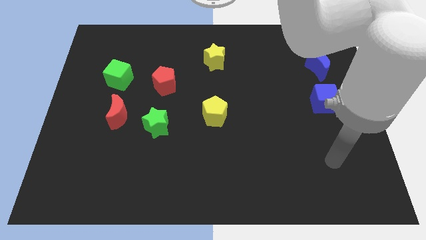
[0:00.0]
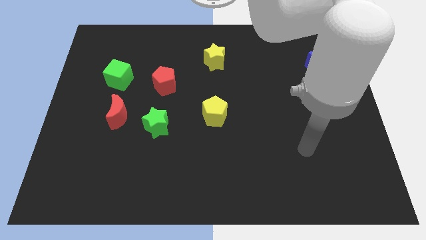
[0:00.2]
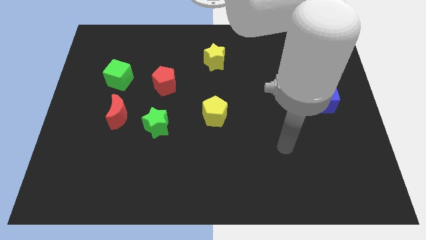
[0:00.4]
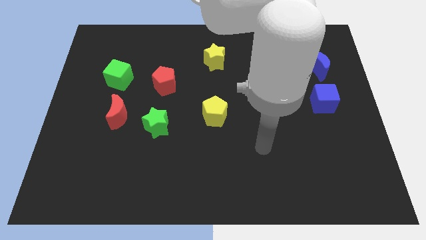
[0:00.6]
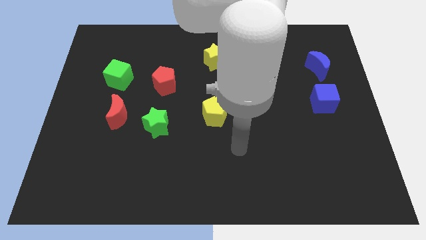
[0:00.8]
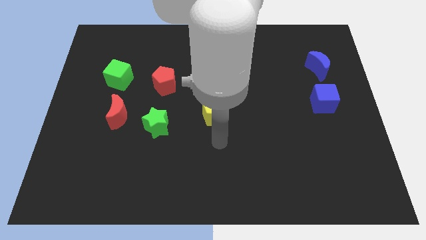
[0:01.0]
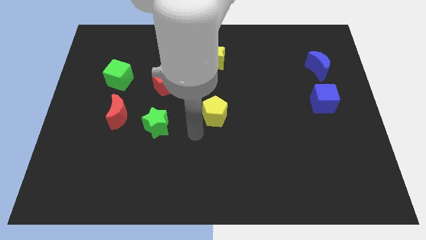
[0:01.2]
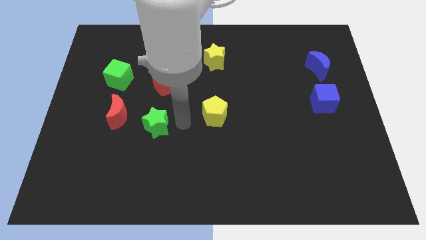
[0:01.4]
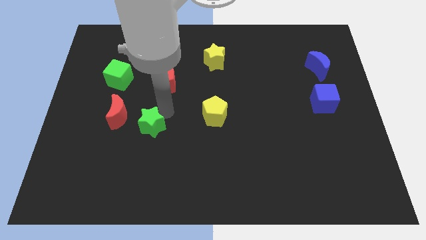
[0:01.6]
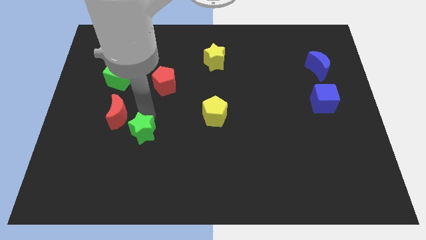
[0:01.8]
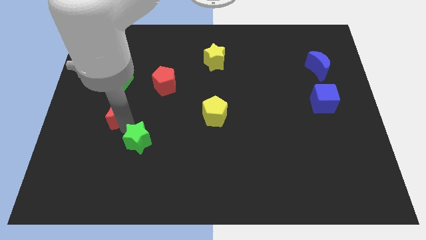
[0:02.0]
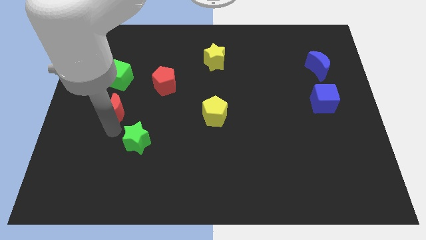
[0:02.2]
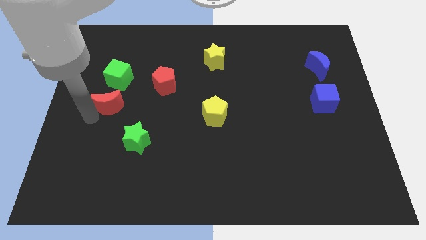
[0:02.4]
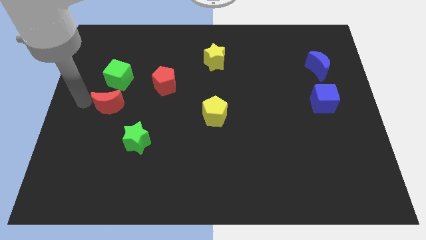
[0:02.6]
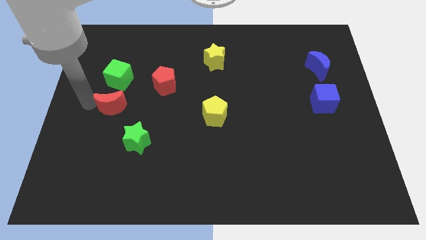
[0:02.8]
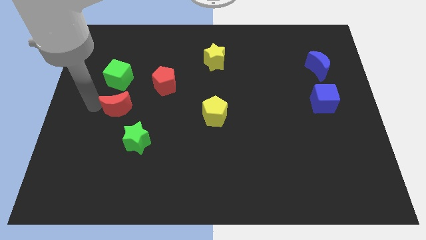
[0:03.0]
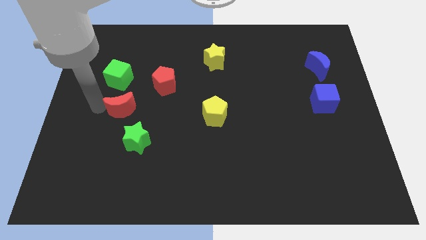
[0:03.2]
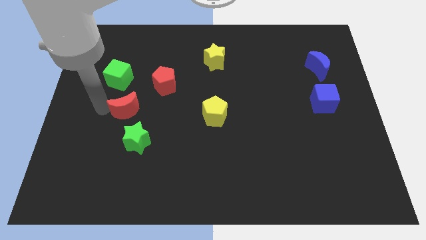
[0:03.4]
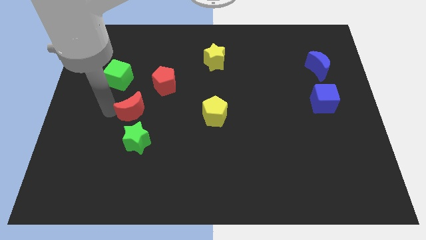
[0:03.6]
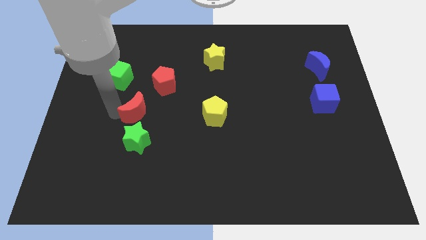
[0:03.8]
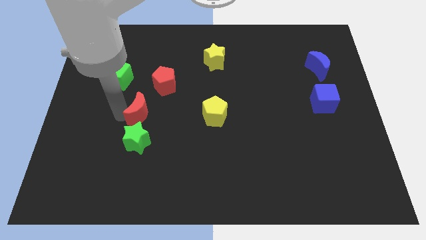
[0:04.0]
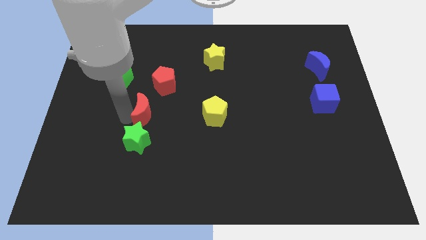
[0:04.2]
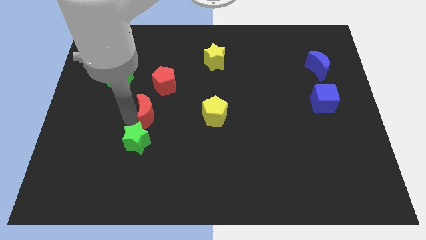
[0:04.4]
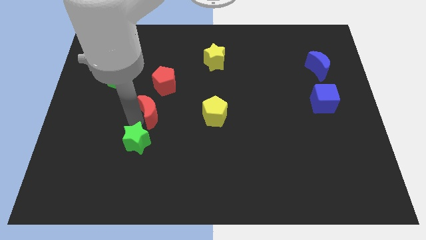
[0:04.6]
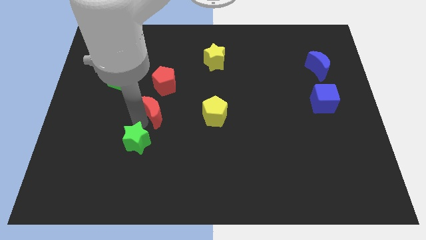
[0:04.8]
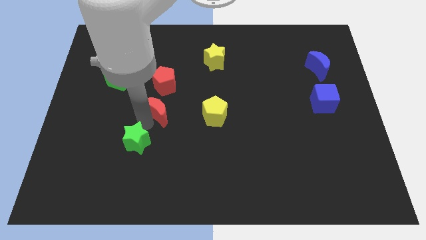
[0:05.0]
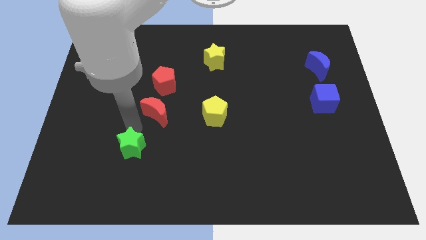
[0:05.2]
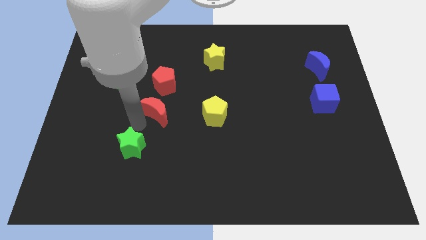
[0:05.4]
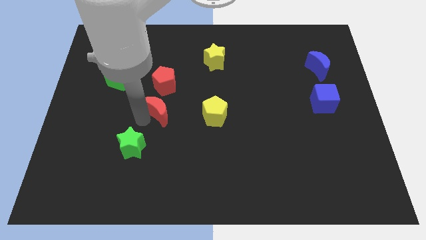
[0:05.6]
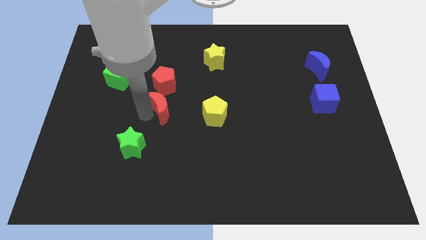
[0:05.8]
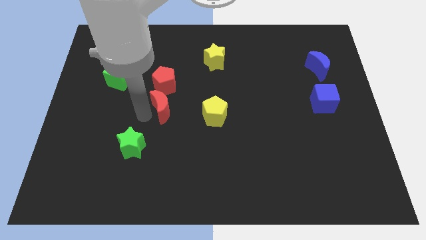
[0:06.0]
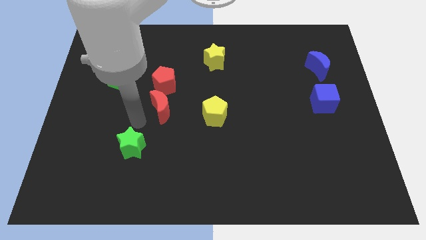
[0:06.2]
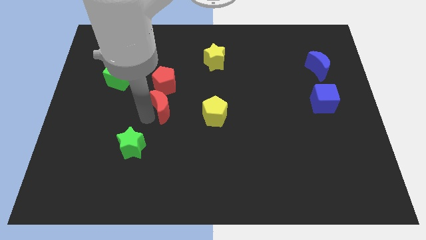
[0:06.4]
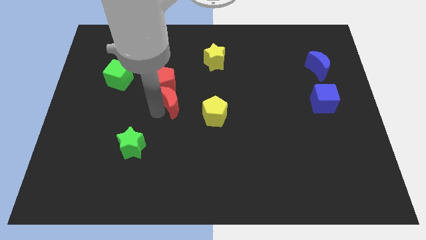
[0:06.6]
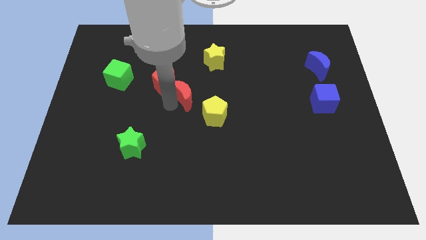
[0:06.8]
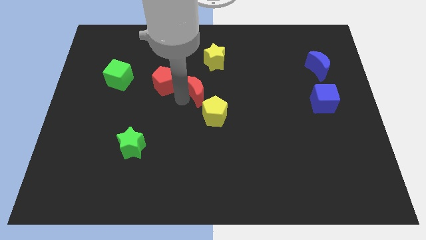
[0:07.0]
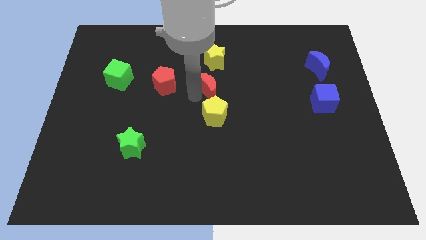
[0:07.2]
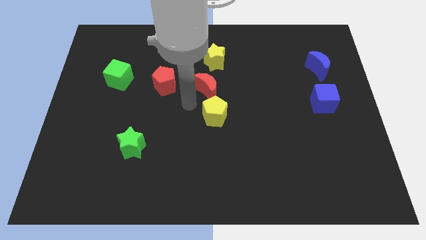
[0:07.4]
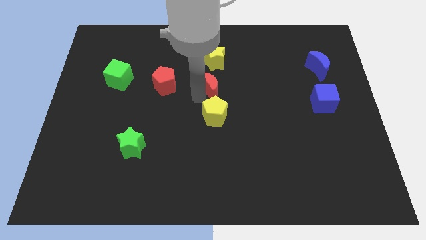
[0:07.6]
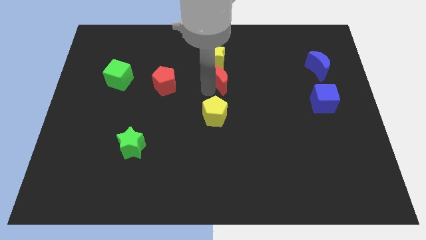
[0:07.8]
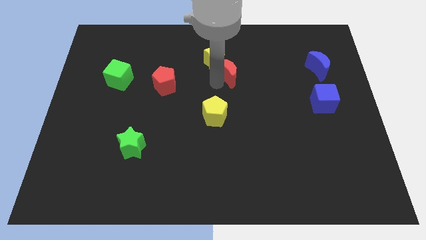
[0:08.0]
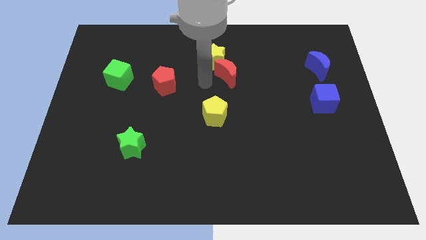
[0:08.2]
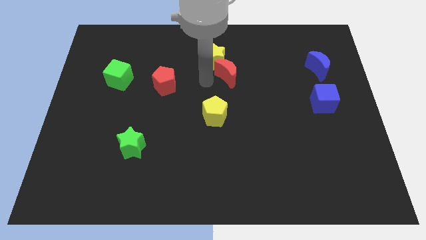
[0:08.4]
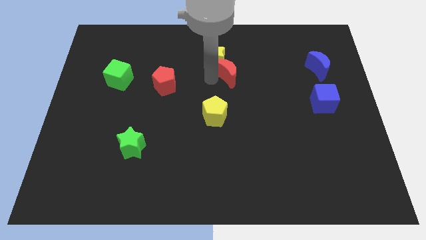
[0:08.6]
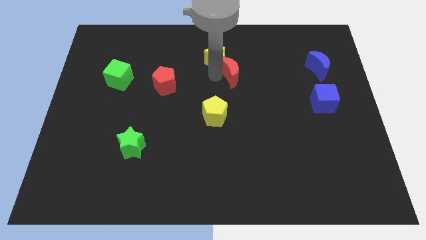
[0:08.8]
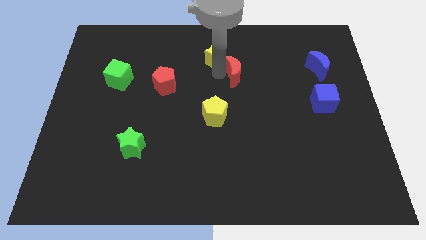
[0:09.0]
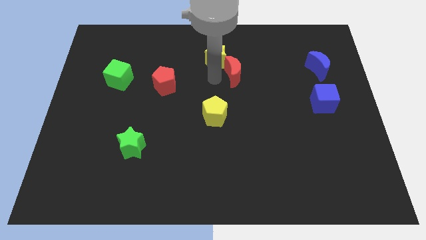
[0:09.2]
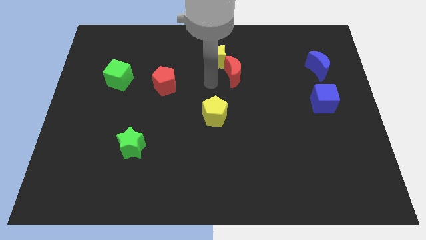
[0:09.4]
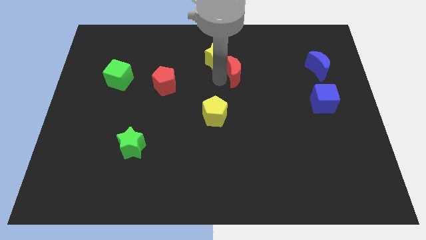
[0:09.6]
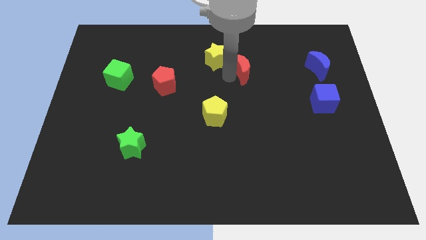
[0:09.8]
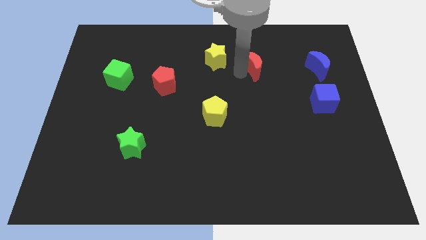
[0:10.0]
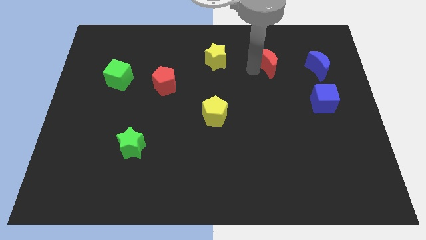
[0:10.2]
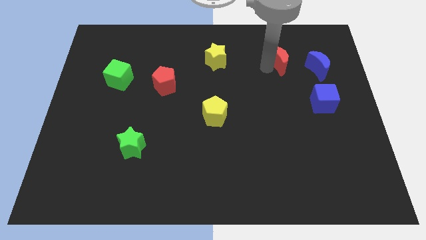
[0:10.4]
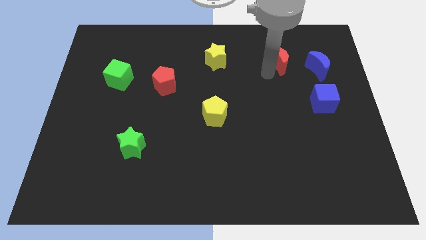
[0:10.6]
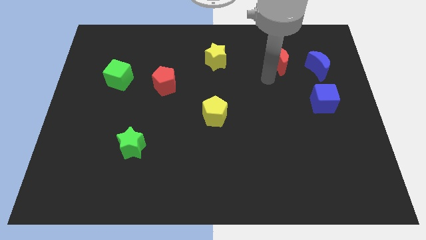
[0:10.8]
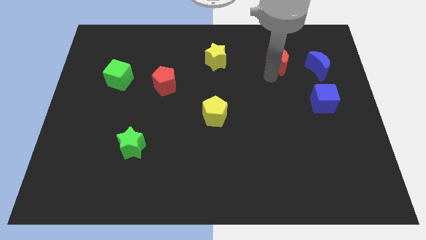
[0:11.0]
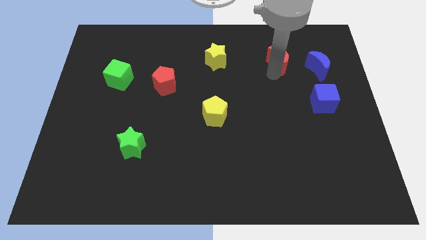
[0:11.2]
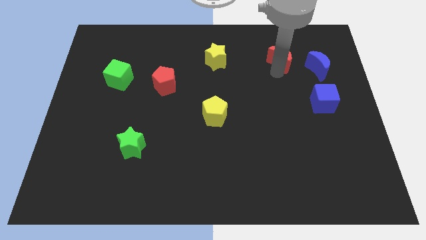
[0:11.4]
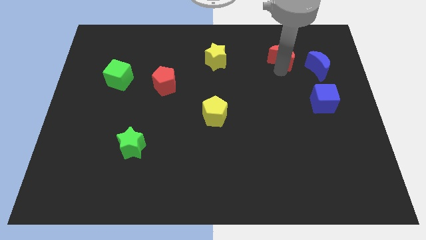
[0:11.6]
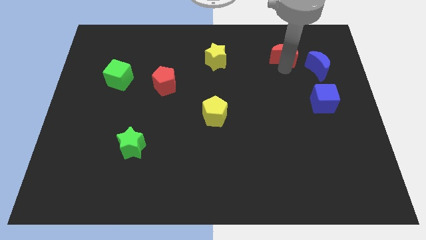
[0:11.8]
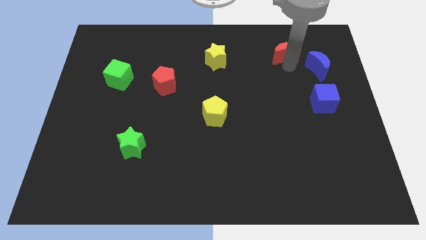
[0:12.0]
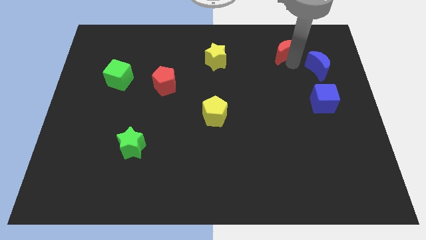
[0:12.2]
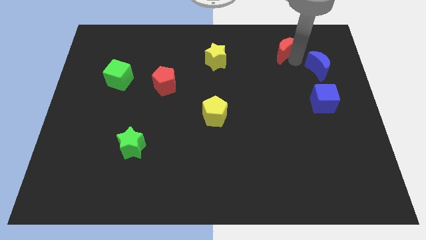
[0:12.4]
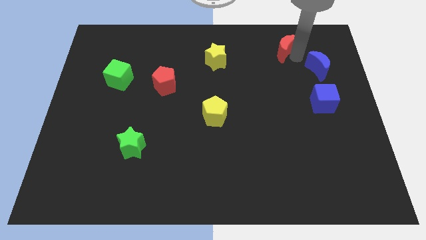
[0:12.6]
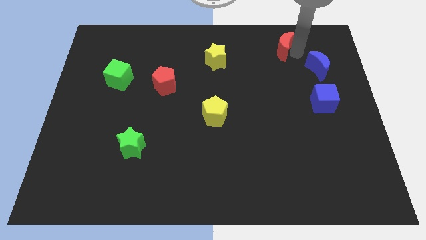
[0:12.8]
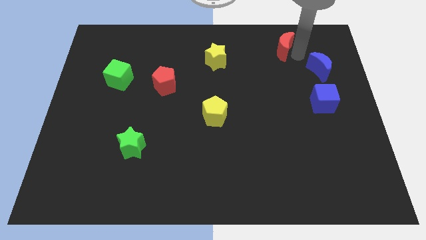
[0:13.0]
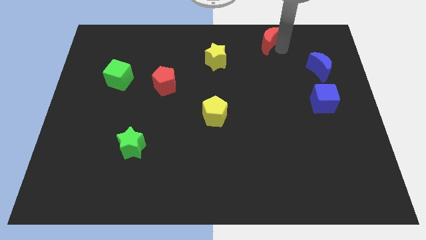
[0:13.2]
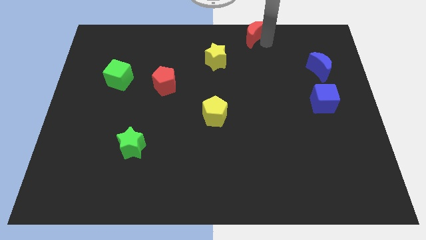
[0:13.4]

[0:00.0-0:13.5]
move the red moon to the top

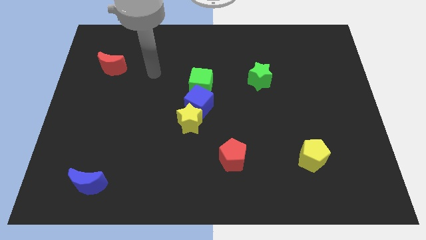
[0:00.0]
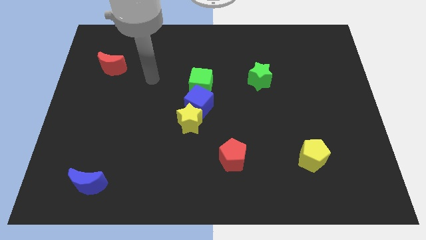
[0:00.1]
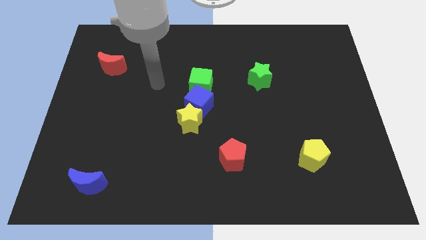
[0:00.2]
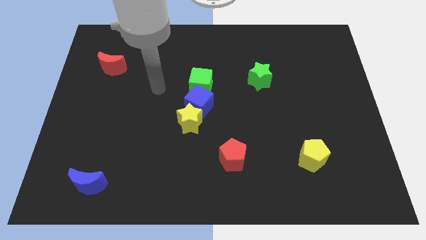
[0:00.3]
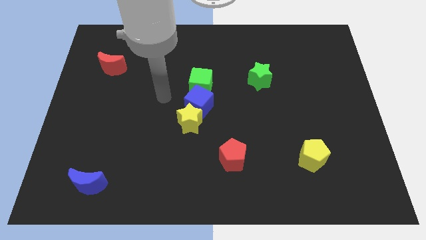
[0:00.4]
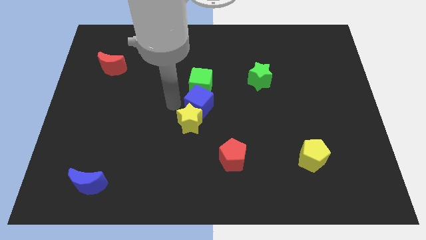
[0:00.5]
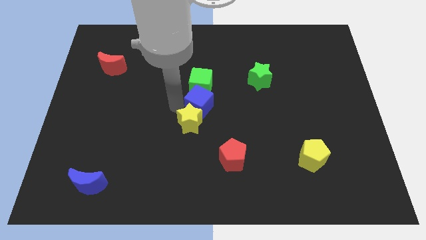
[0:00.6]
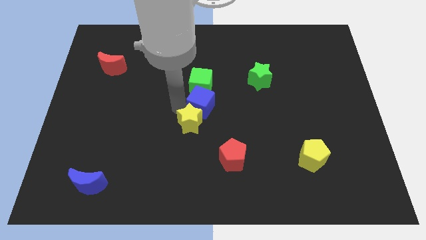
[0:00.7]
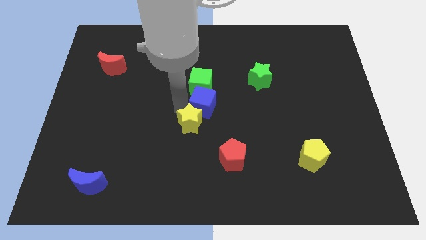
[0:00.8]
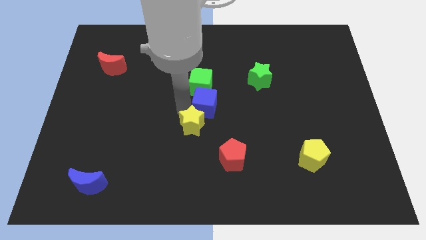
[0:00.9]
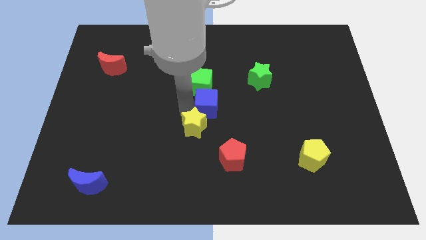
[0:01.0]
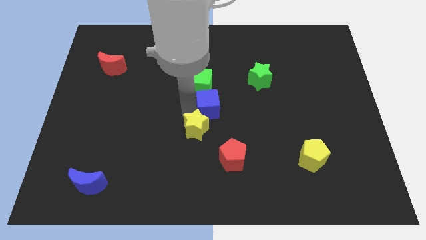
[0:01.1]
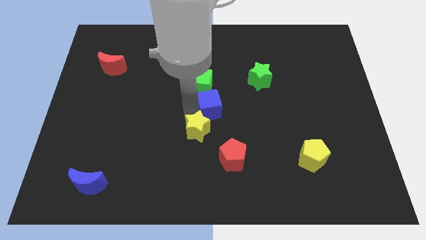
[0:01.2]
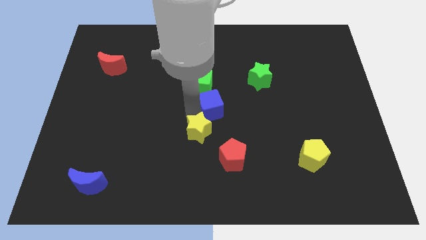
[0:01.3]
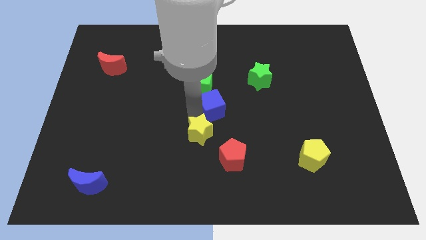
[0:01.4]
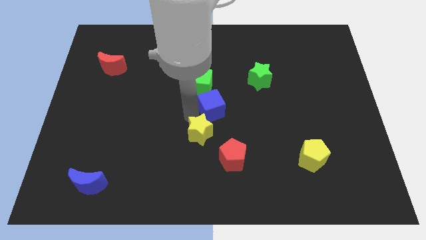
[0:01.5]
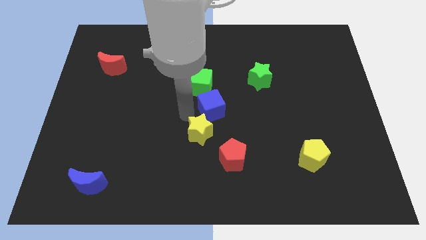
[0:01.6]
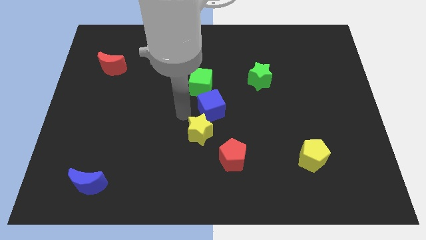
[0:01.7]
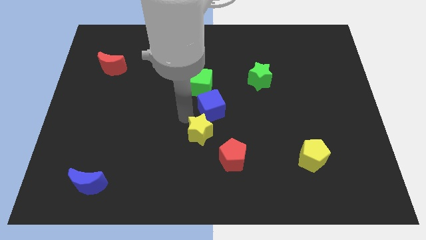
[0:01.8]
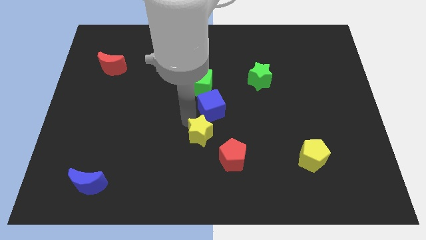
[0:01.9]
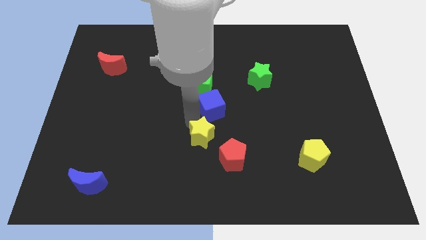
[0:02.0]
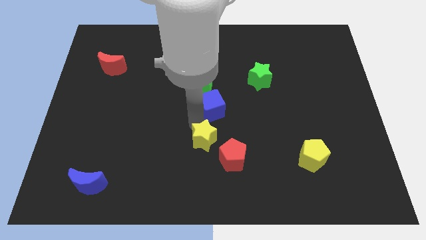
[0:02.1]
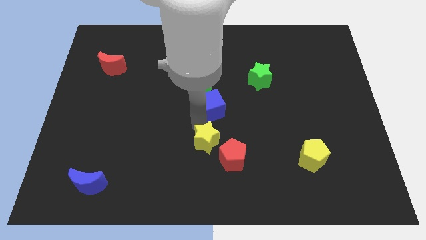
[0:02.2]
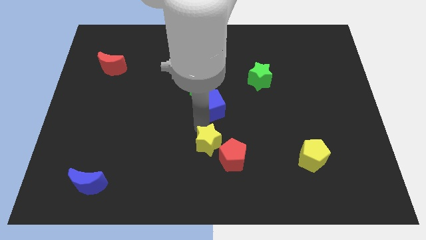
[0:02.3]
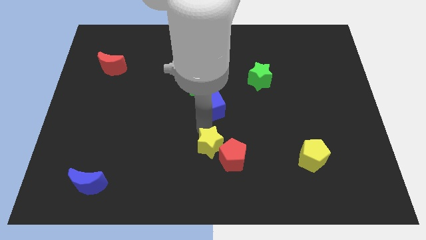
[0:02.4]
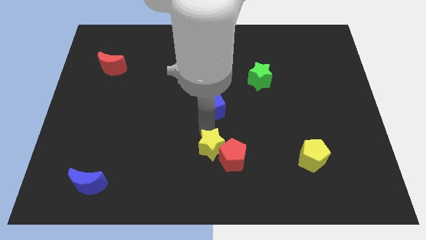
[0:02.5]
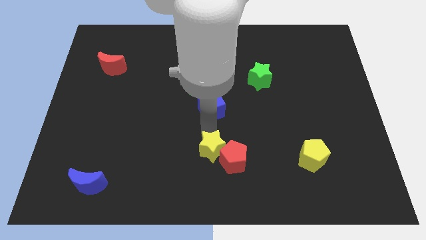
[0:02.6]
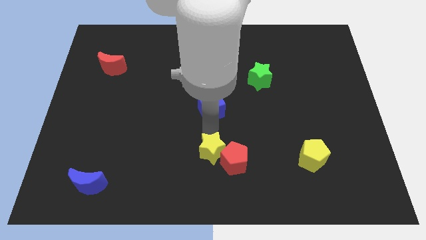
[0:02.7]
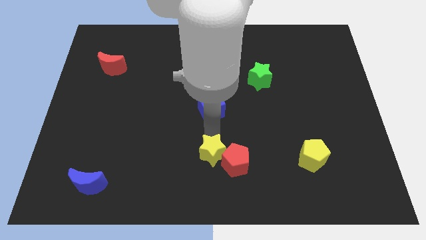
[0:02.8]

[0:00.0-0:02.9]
push the yellow star to the bottom side
